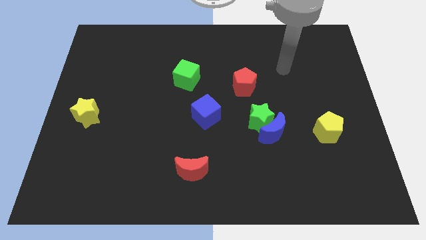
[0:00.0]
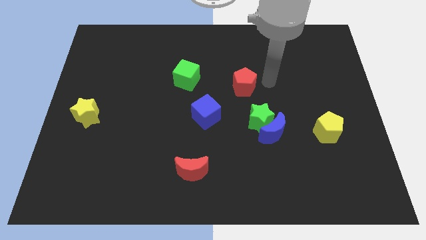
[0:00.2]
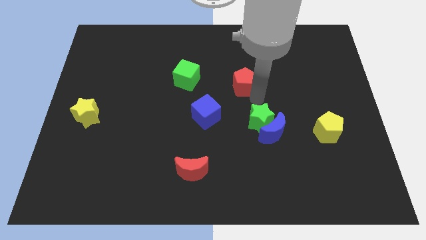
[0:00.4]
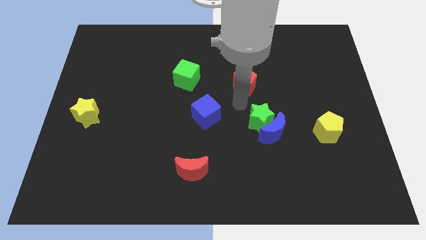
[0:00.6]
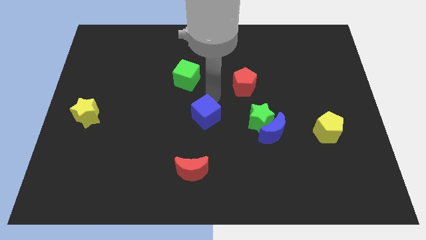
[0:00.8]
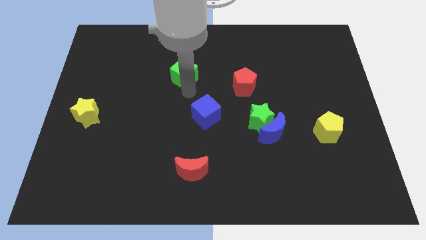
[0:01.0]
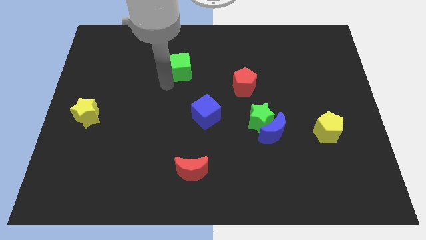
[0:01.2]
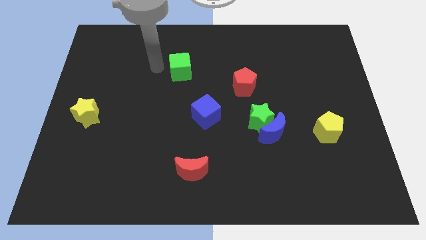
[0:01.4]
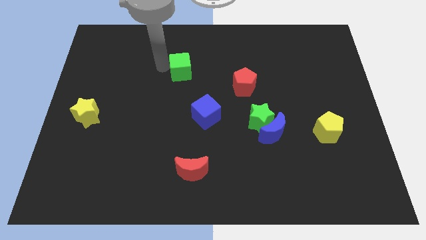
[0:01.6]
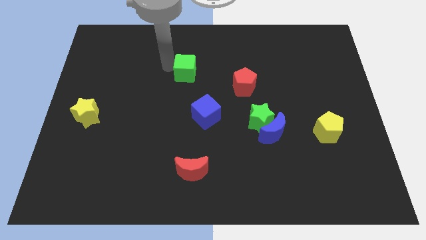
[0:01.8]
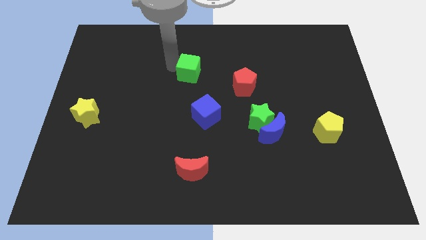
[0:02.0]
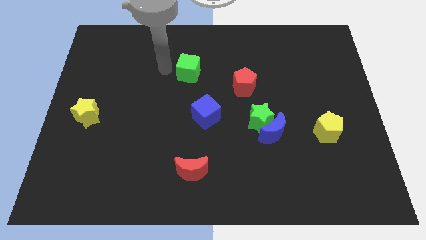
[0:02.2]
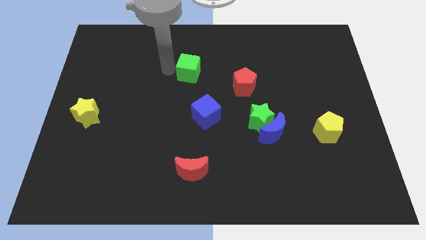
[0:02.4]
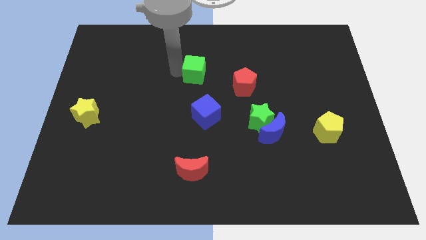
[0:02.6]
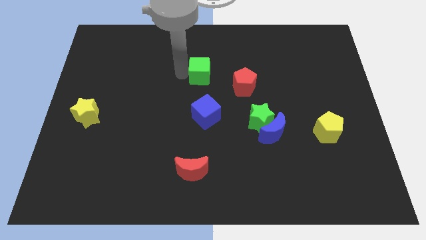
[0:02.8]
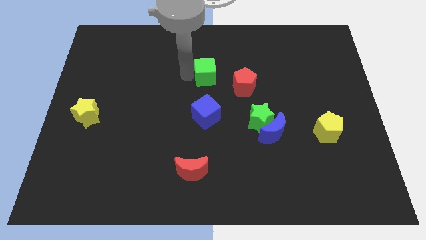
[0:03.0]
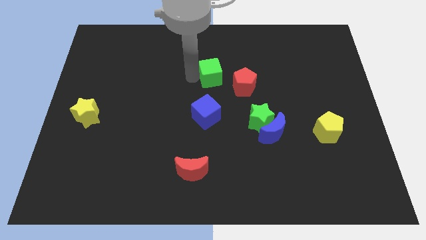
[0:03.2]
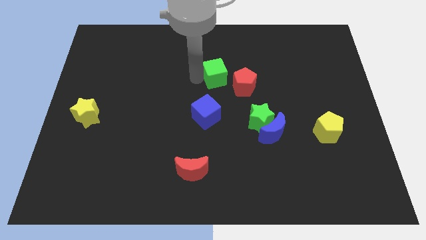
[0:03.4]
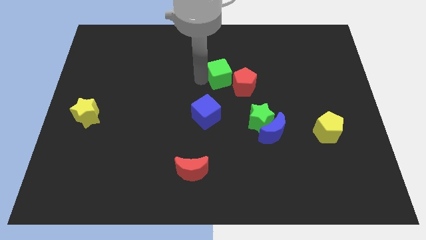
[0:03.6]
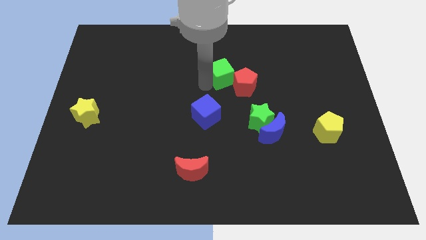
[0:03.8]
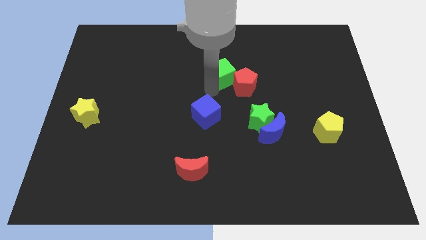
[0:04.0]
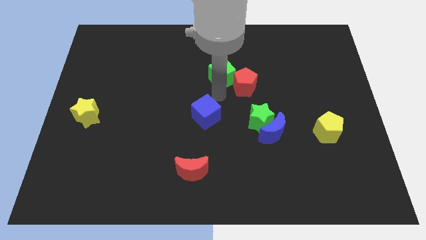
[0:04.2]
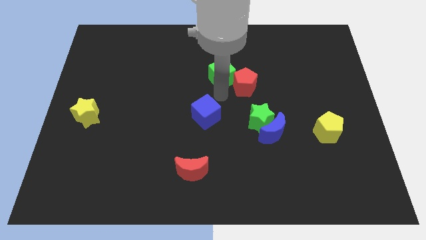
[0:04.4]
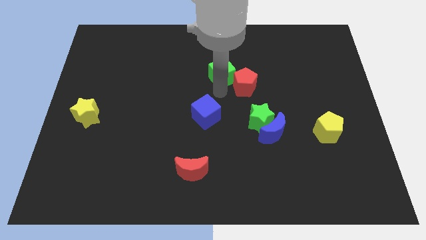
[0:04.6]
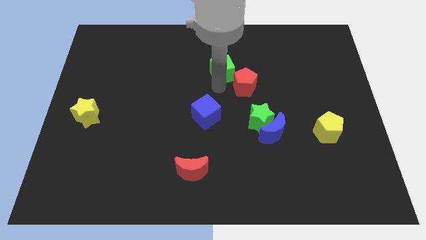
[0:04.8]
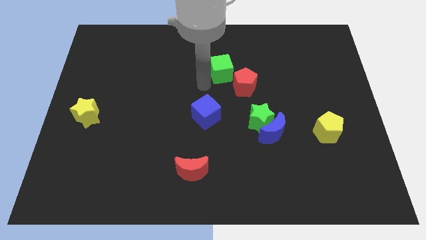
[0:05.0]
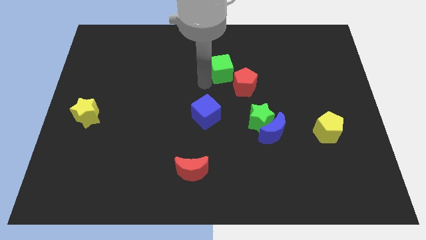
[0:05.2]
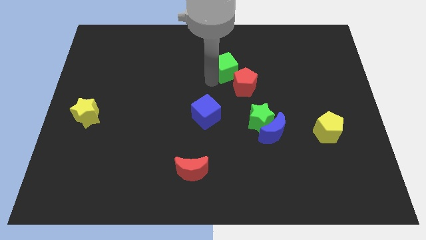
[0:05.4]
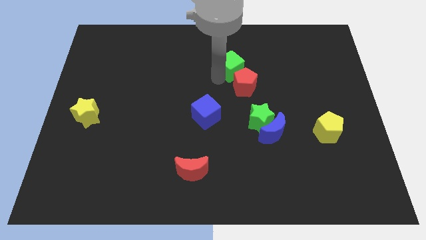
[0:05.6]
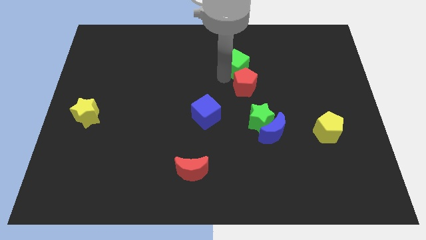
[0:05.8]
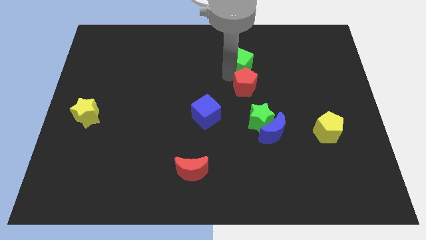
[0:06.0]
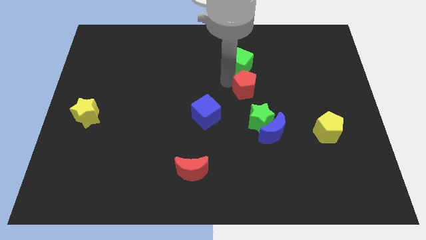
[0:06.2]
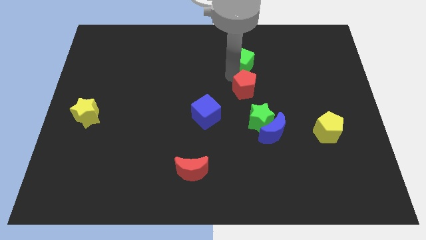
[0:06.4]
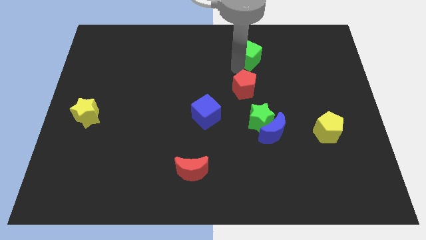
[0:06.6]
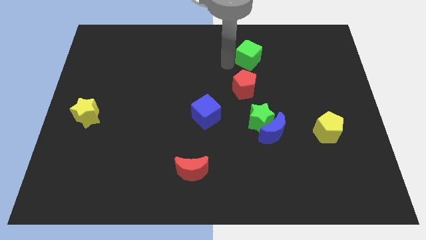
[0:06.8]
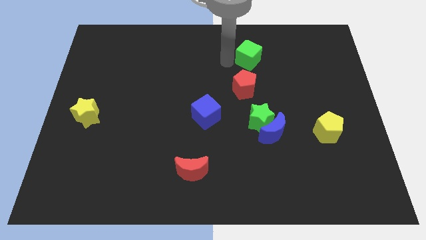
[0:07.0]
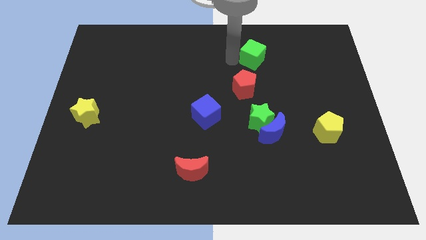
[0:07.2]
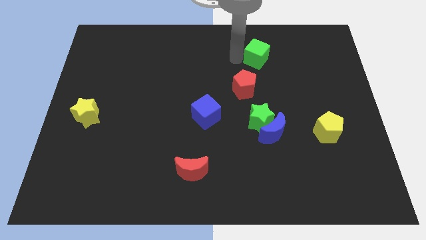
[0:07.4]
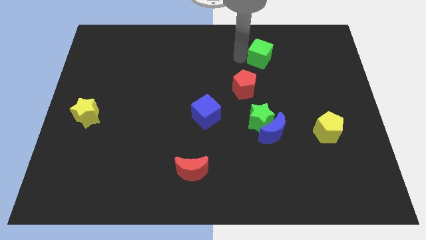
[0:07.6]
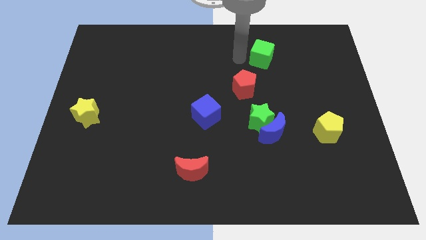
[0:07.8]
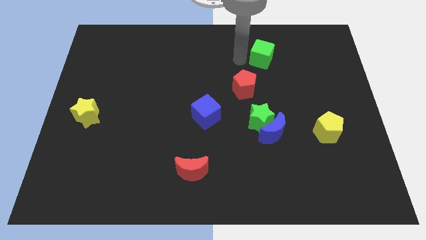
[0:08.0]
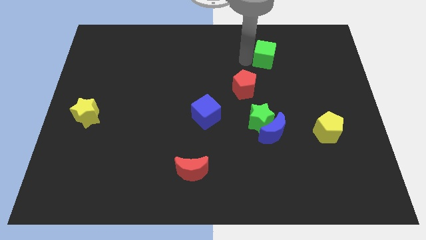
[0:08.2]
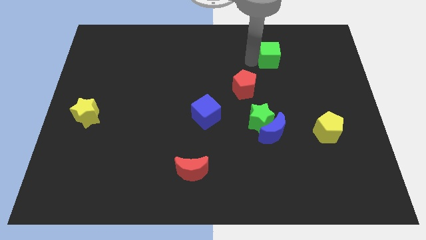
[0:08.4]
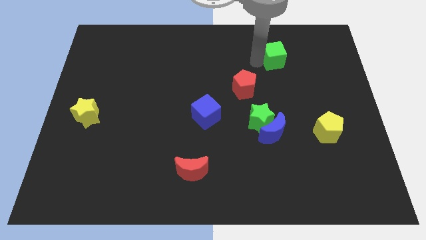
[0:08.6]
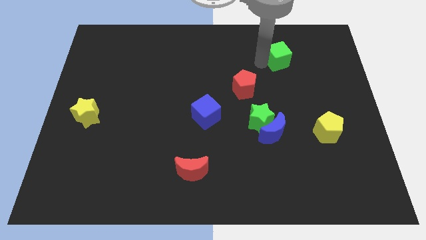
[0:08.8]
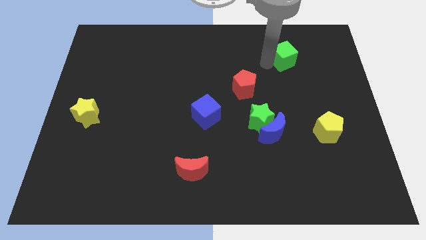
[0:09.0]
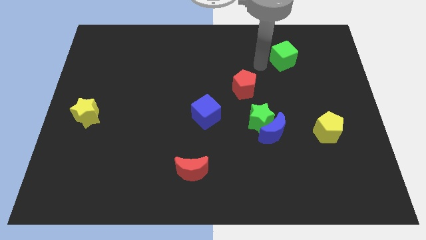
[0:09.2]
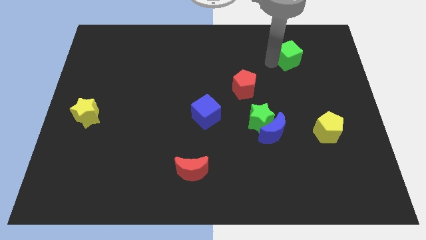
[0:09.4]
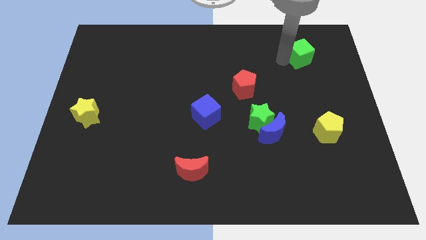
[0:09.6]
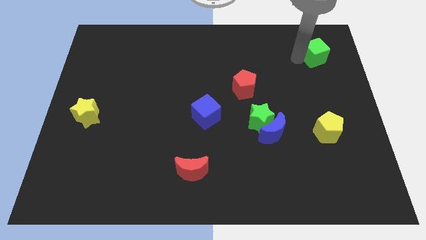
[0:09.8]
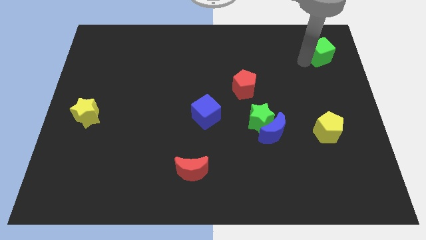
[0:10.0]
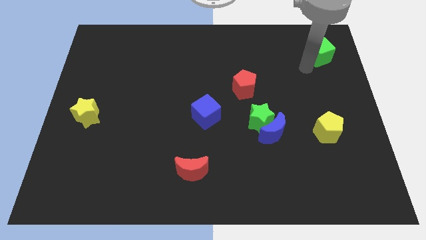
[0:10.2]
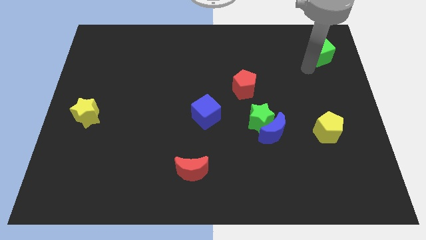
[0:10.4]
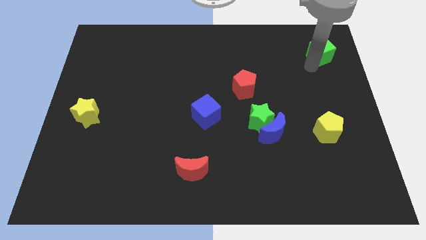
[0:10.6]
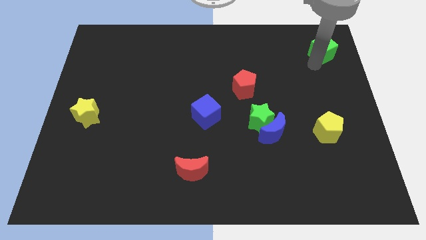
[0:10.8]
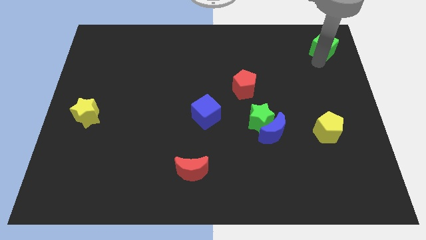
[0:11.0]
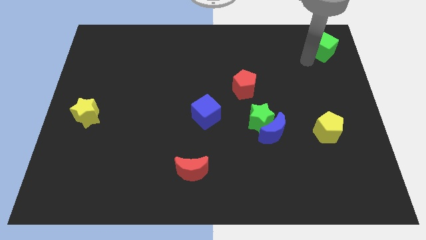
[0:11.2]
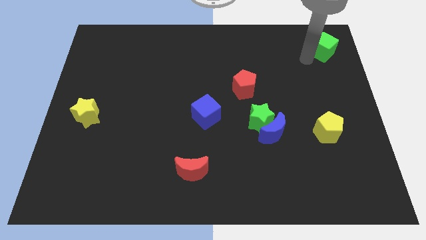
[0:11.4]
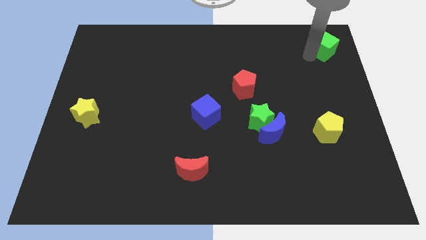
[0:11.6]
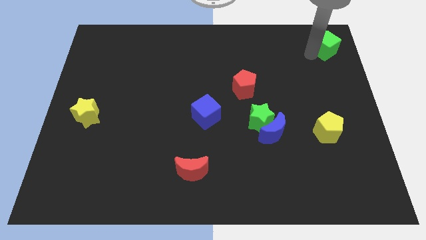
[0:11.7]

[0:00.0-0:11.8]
put the green cube to the top right
